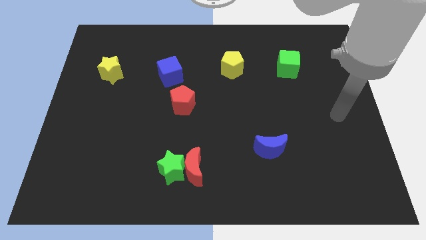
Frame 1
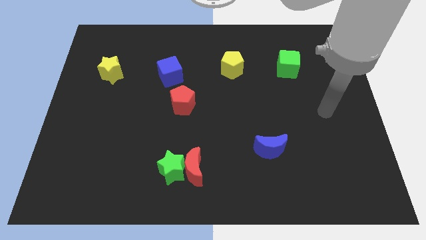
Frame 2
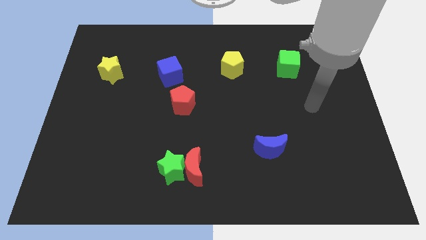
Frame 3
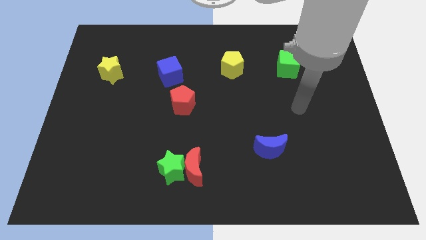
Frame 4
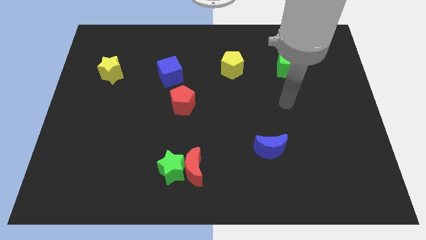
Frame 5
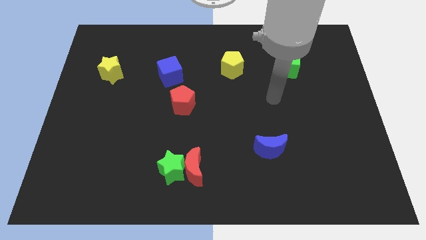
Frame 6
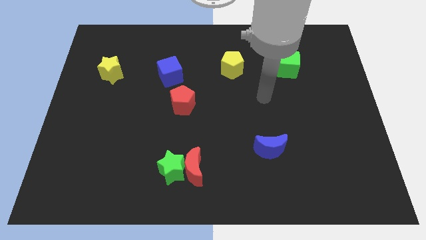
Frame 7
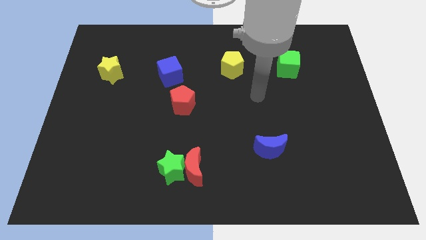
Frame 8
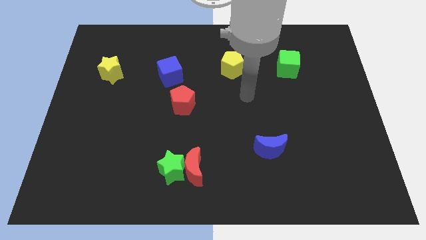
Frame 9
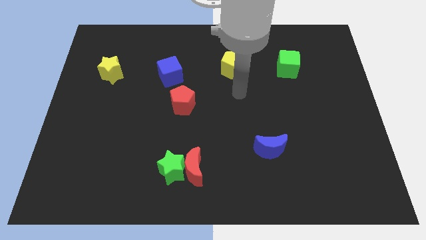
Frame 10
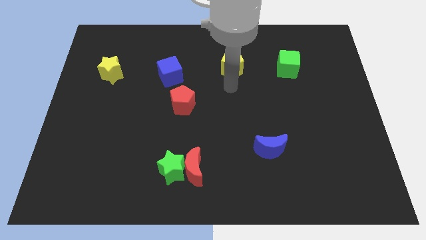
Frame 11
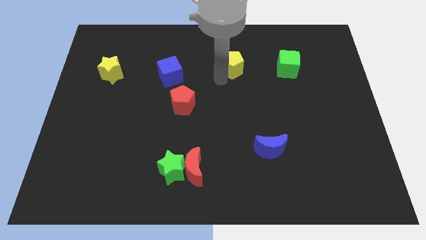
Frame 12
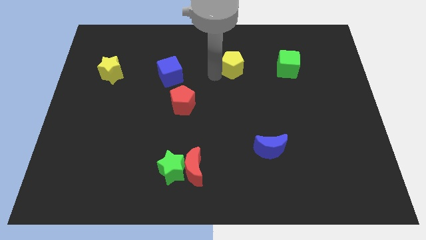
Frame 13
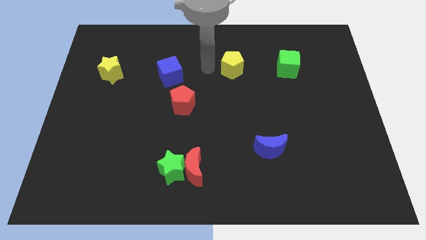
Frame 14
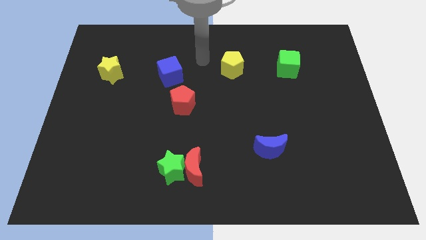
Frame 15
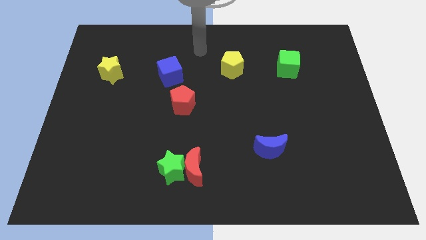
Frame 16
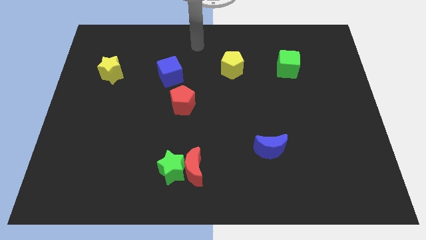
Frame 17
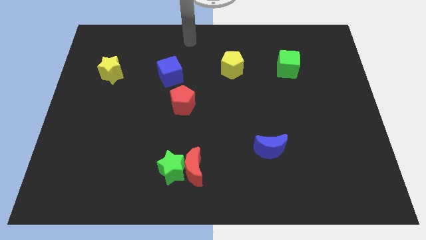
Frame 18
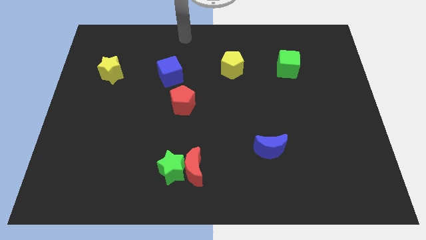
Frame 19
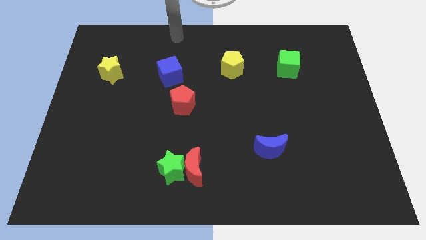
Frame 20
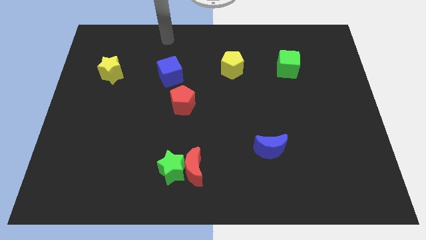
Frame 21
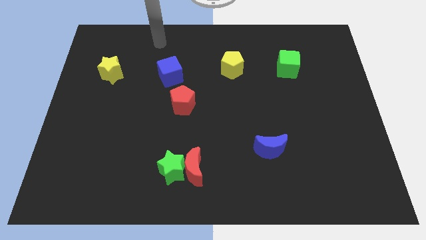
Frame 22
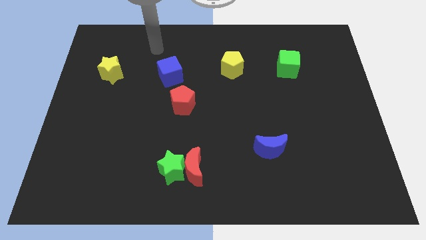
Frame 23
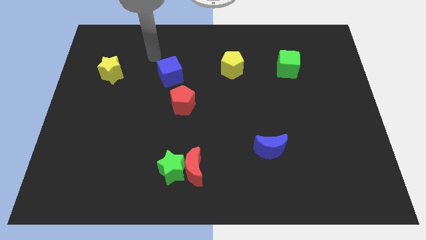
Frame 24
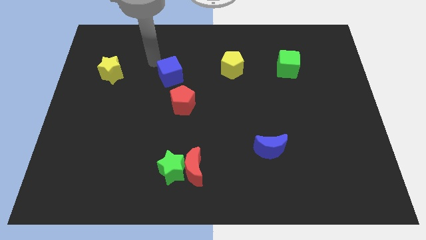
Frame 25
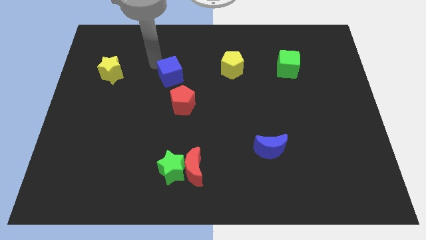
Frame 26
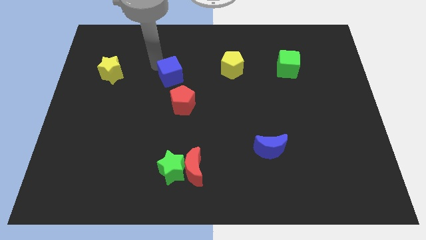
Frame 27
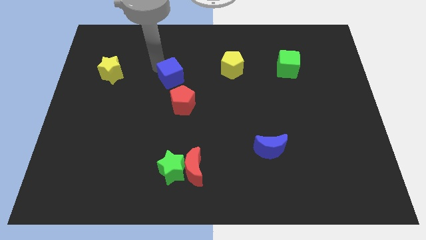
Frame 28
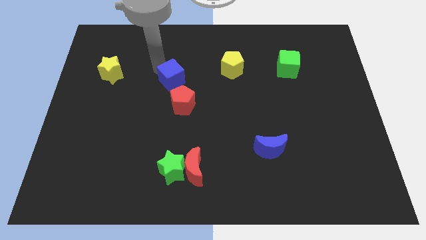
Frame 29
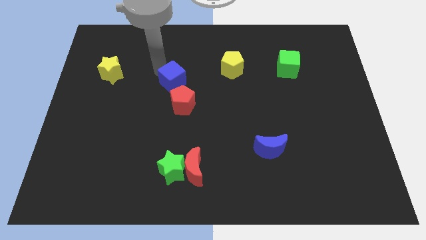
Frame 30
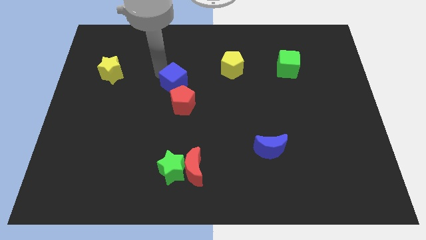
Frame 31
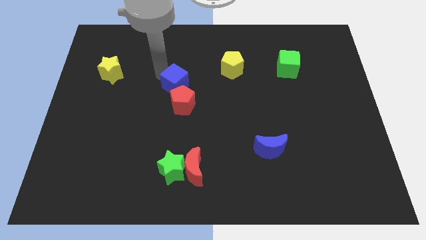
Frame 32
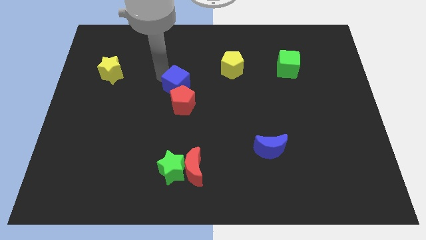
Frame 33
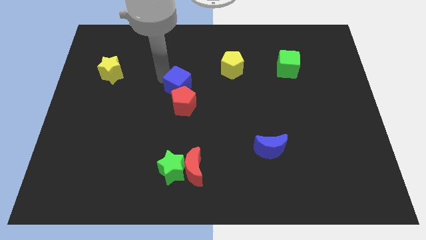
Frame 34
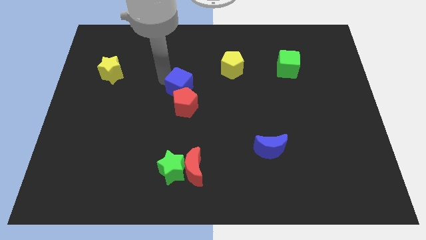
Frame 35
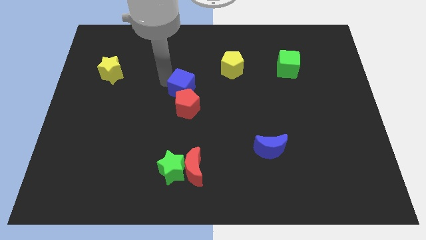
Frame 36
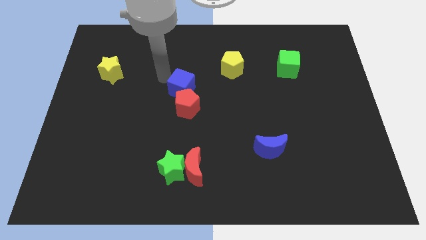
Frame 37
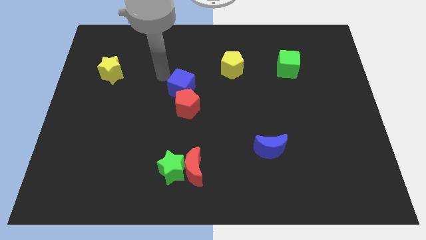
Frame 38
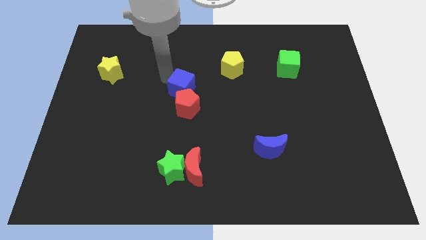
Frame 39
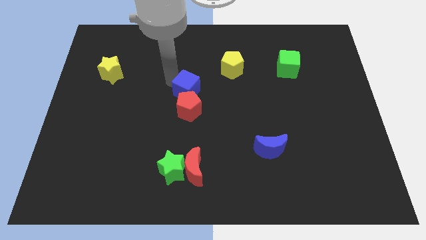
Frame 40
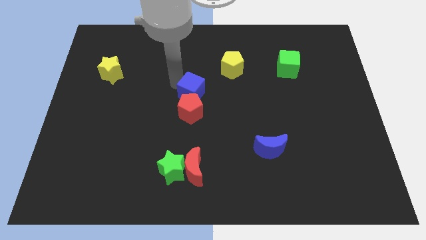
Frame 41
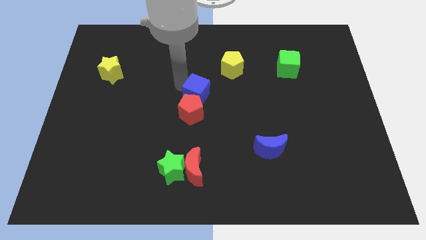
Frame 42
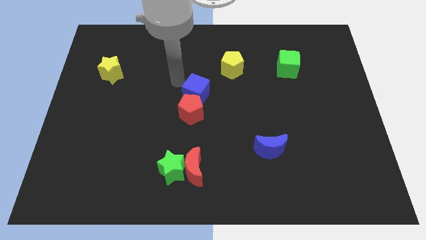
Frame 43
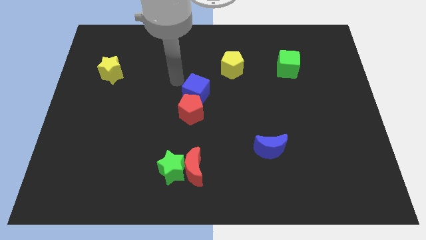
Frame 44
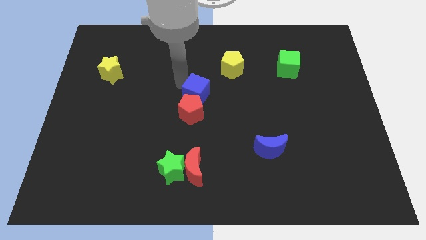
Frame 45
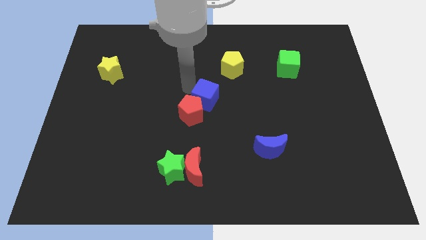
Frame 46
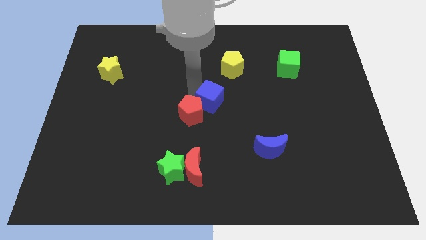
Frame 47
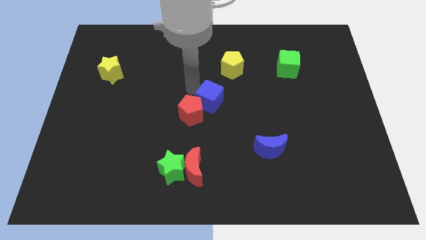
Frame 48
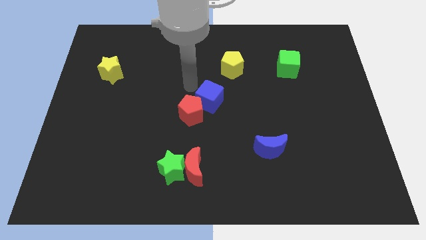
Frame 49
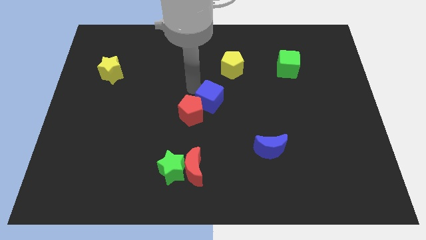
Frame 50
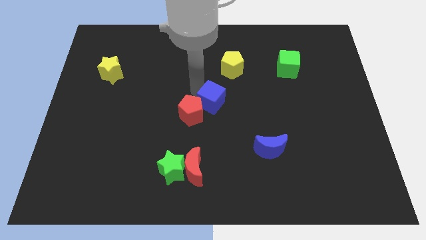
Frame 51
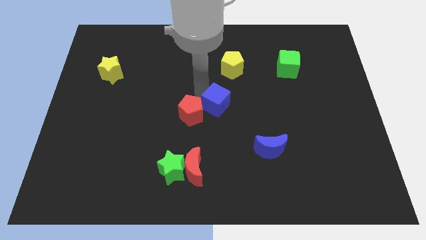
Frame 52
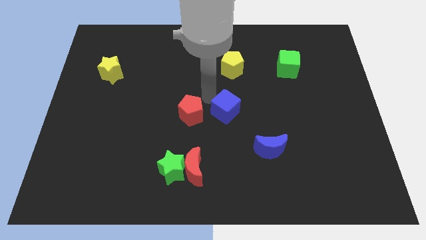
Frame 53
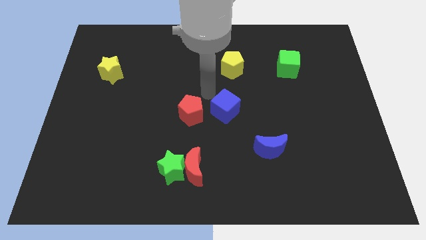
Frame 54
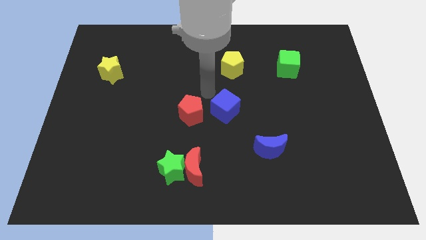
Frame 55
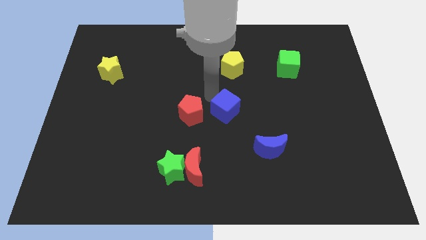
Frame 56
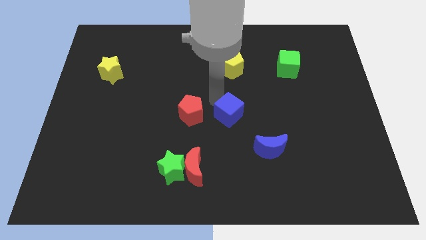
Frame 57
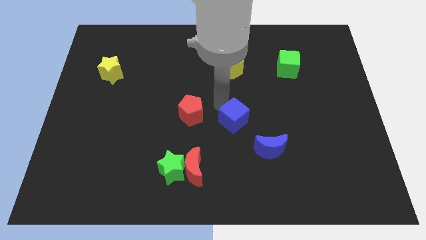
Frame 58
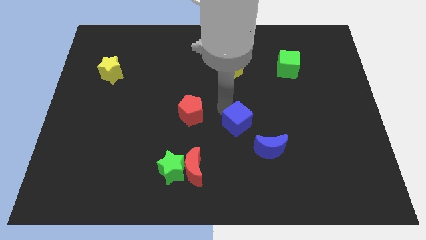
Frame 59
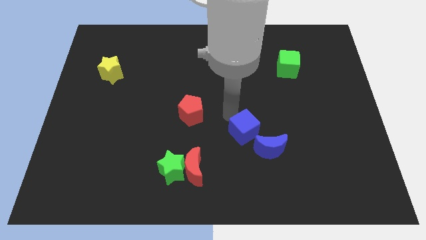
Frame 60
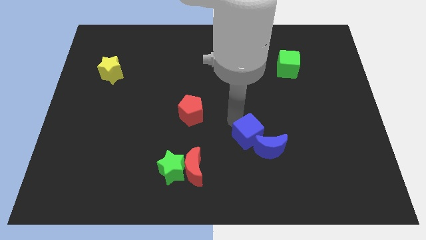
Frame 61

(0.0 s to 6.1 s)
put the blue cube close to the blue moon

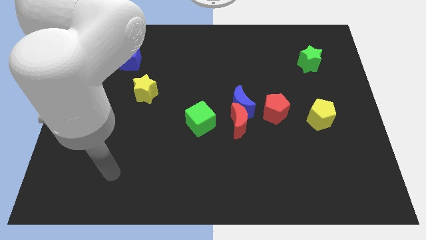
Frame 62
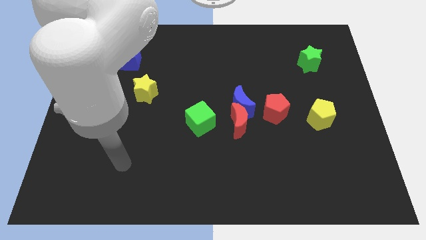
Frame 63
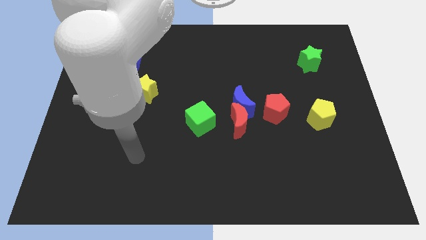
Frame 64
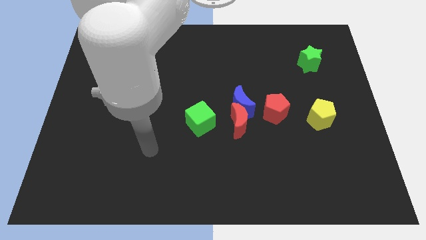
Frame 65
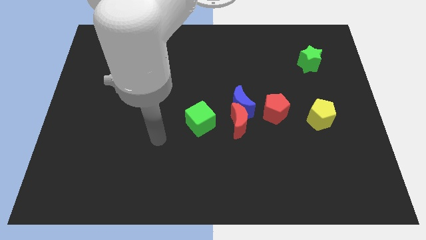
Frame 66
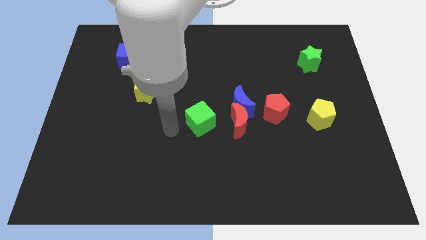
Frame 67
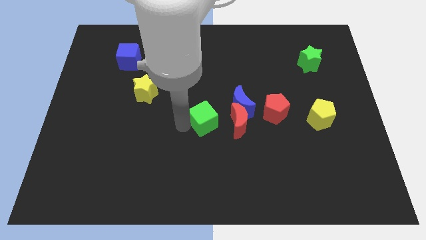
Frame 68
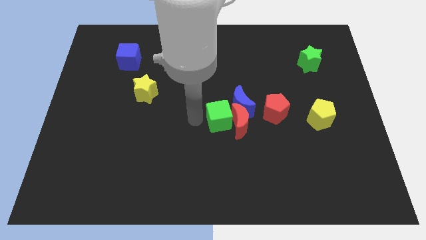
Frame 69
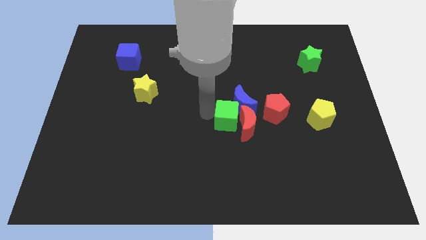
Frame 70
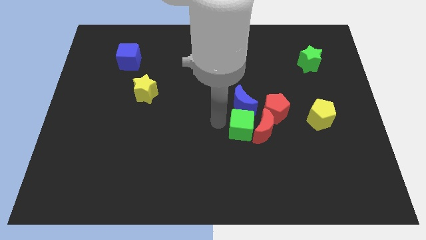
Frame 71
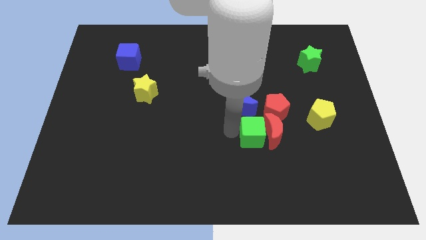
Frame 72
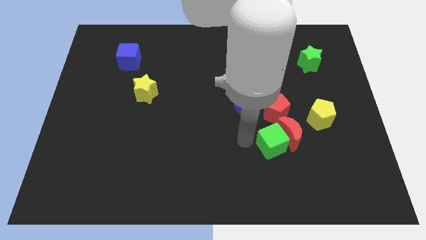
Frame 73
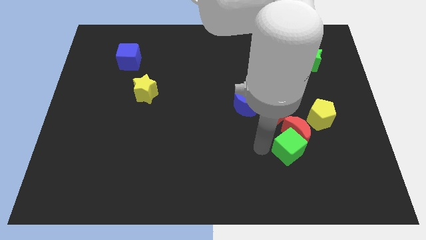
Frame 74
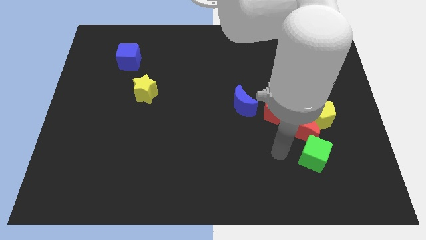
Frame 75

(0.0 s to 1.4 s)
move the red moon next to the yellow pentagon

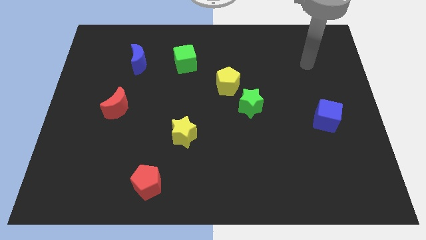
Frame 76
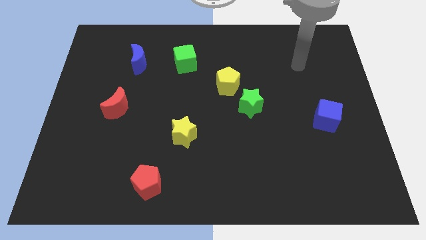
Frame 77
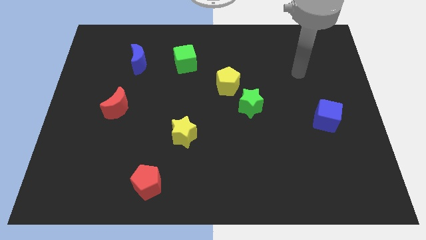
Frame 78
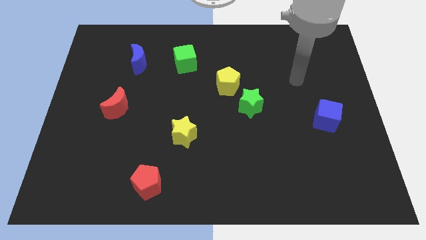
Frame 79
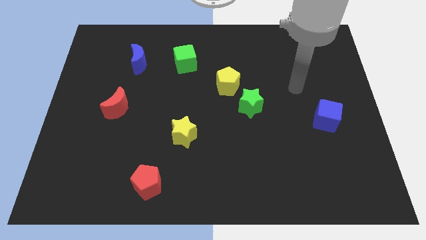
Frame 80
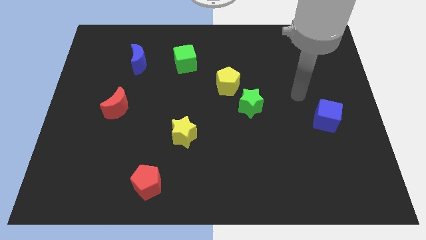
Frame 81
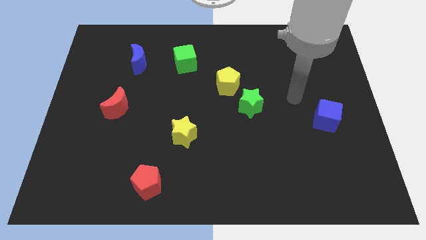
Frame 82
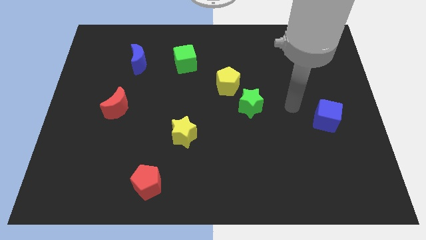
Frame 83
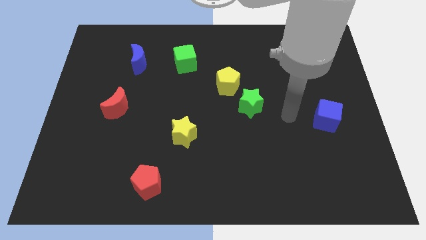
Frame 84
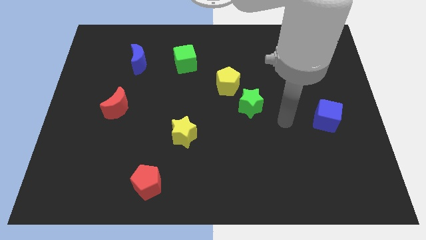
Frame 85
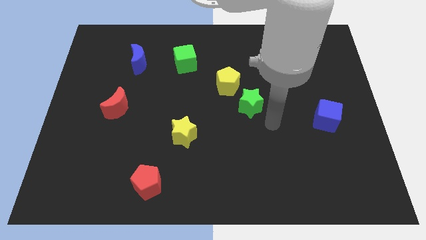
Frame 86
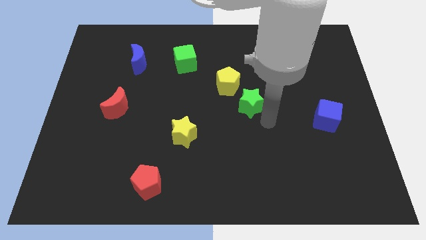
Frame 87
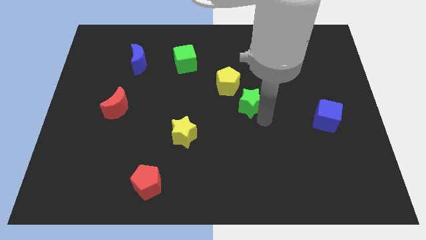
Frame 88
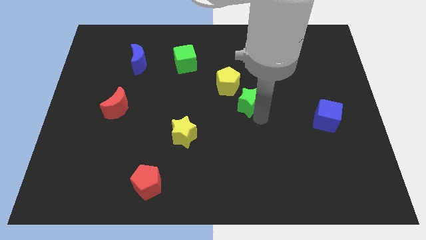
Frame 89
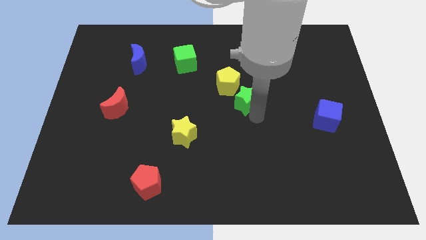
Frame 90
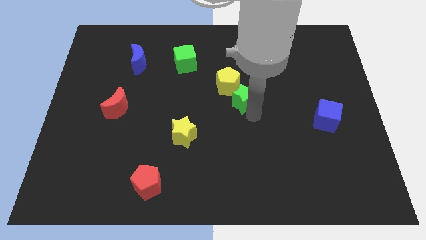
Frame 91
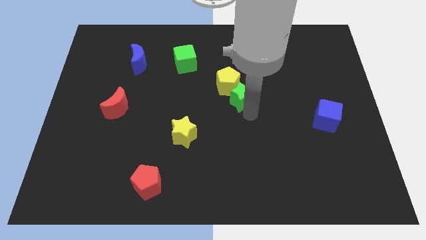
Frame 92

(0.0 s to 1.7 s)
move the green star close to the yellow pentagon
